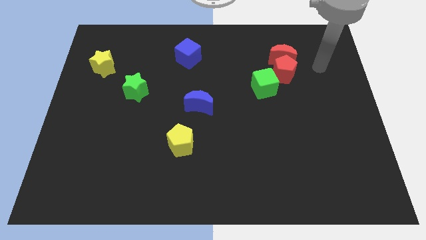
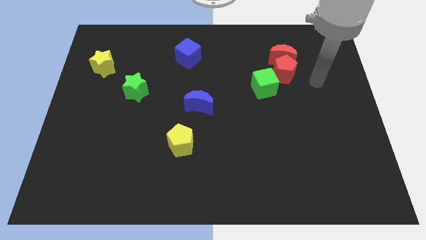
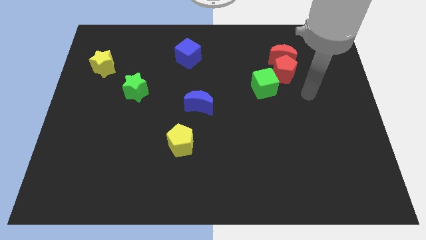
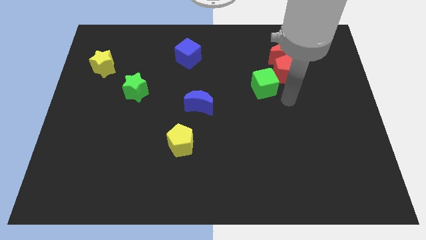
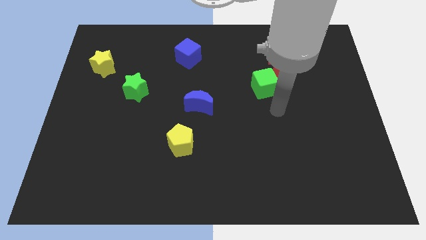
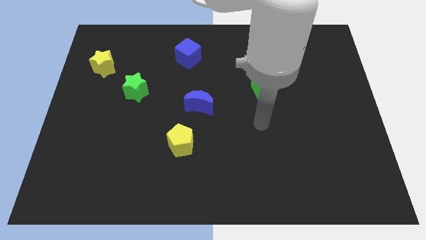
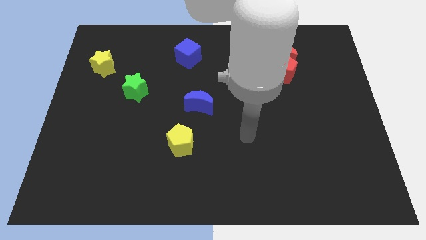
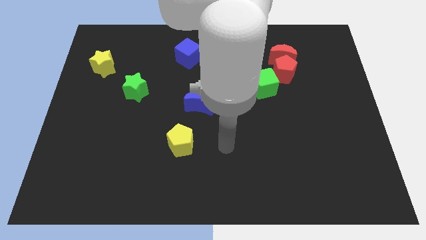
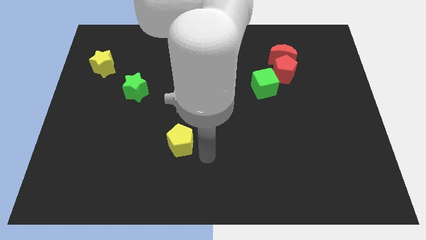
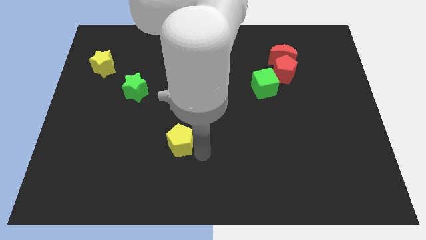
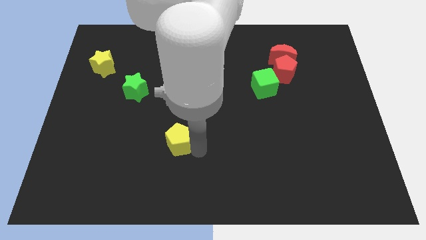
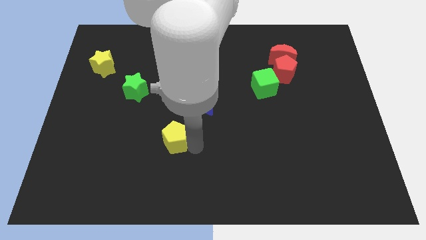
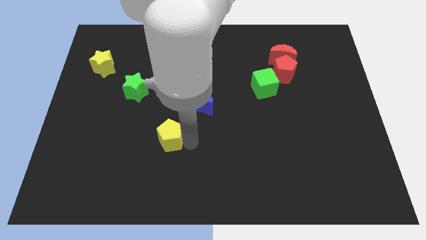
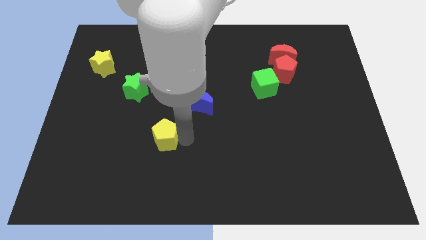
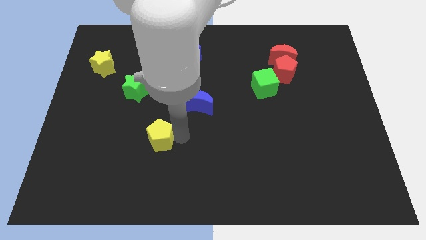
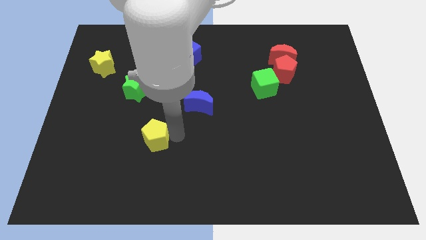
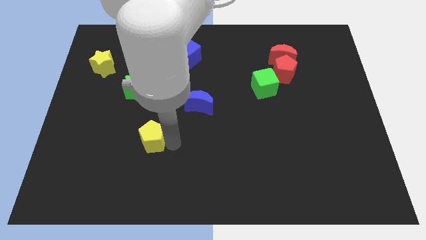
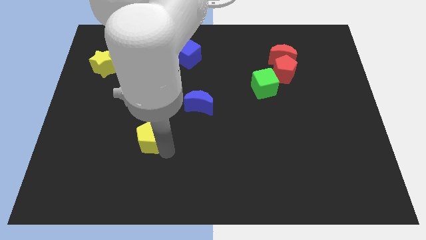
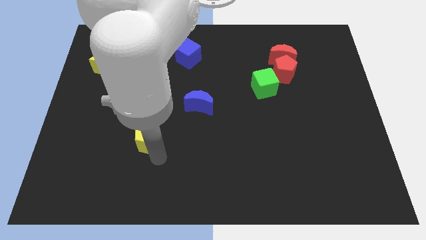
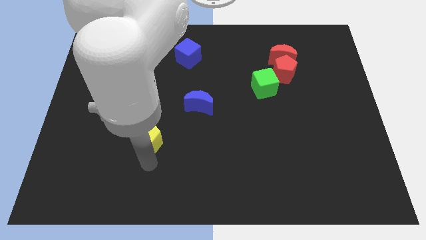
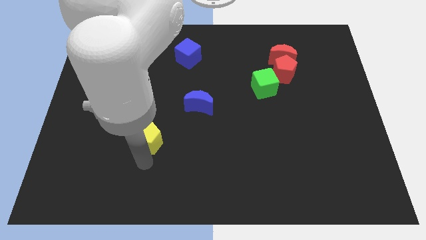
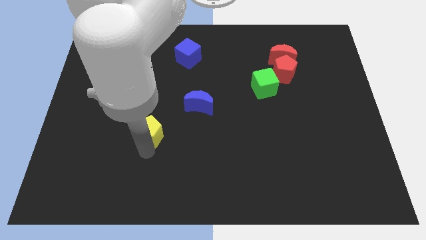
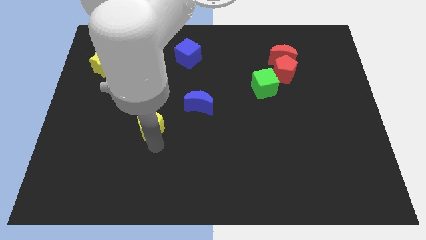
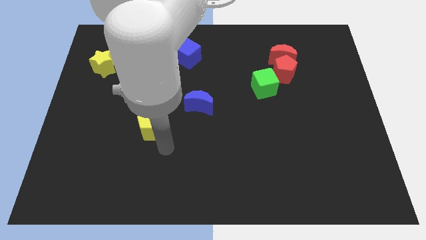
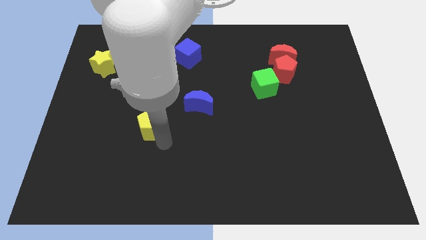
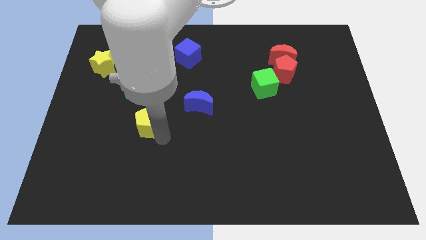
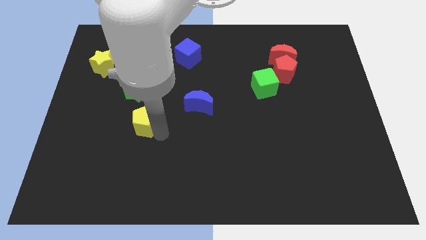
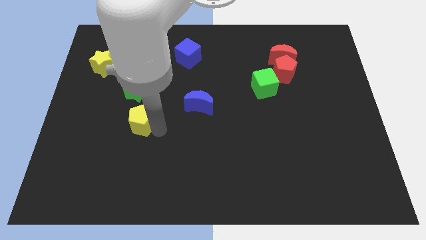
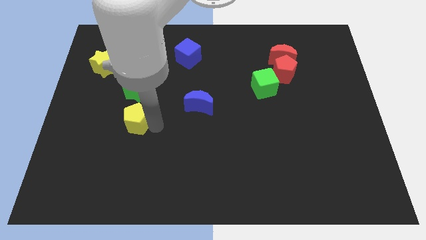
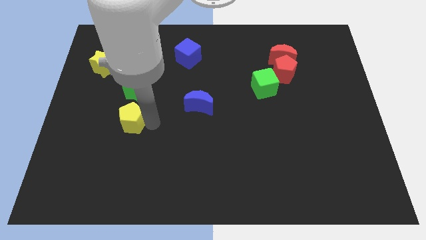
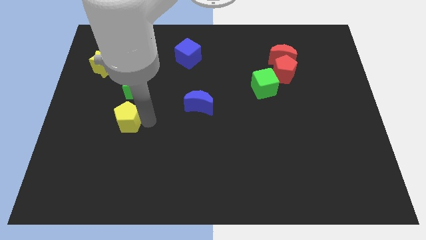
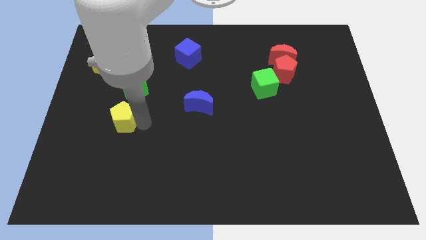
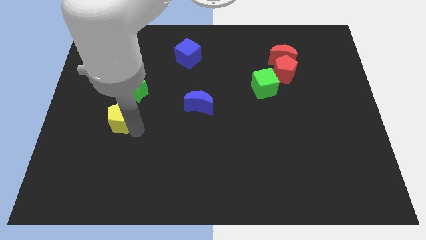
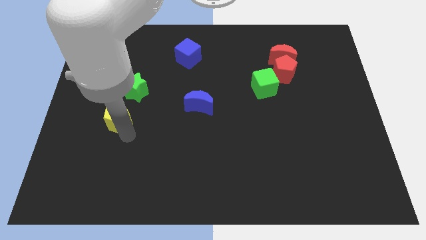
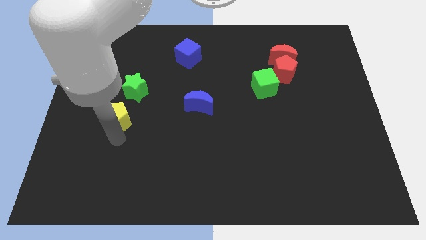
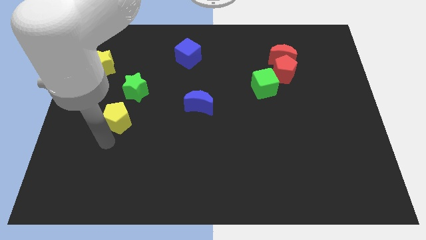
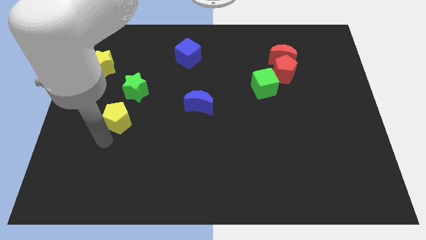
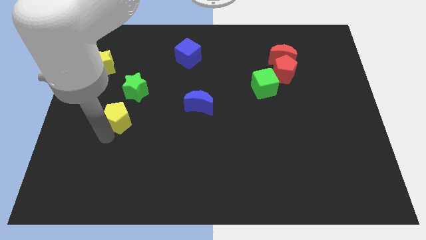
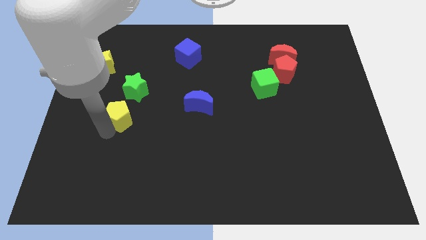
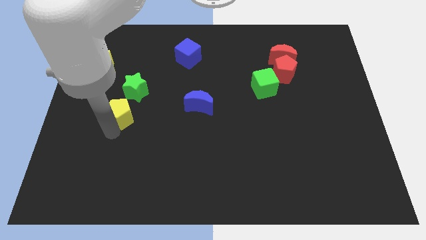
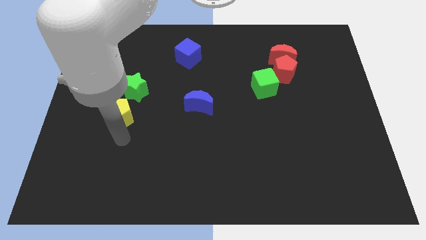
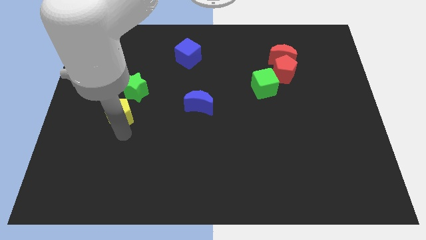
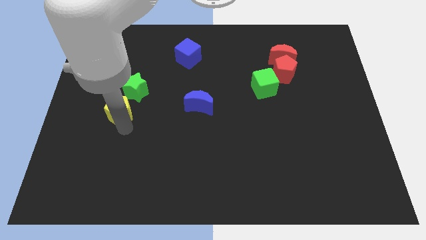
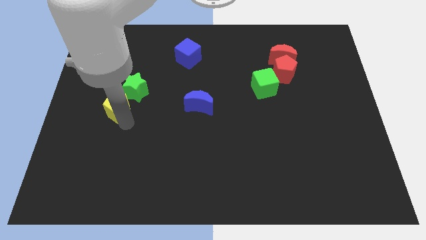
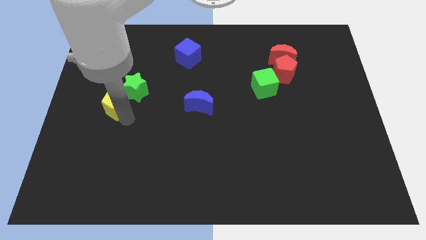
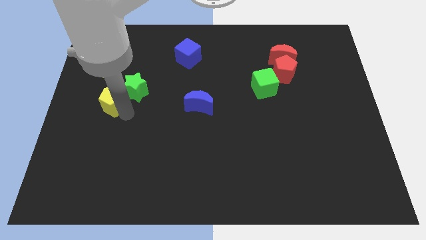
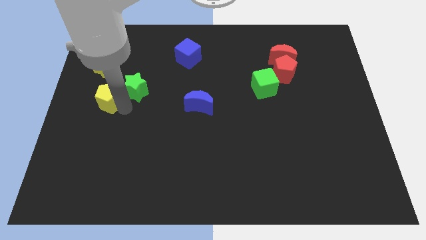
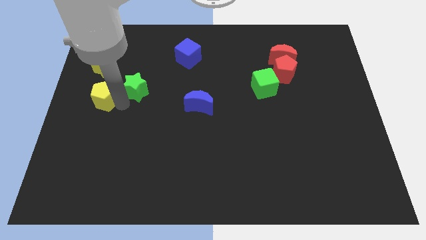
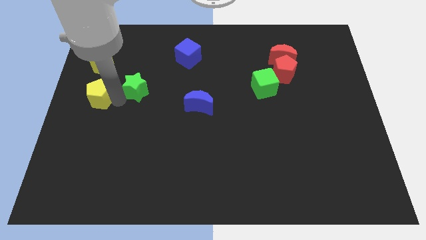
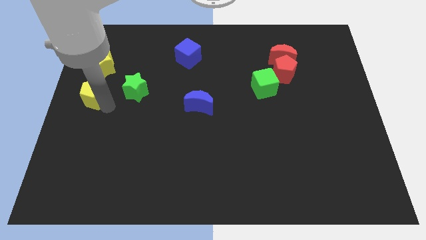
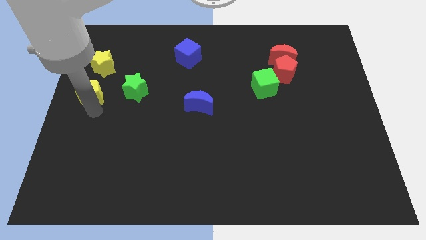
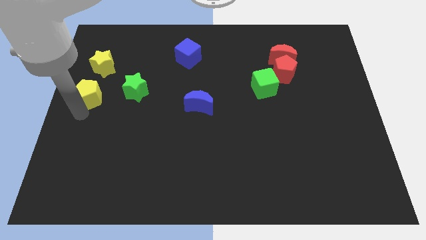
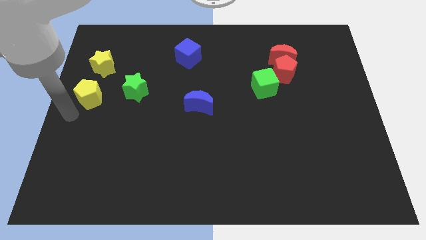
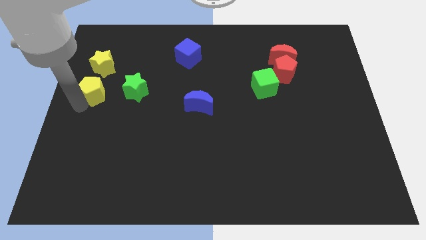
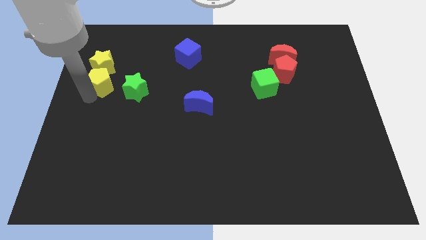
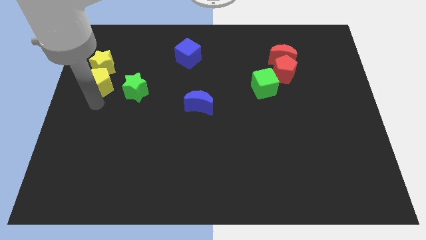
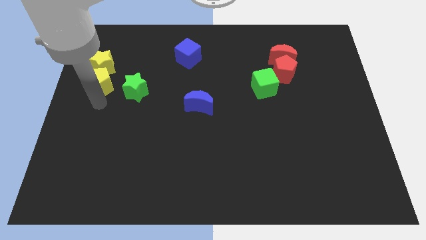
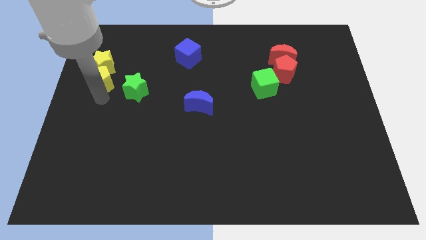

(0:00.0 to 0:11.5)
push the yellow pentagon next to the yellow star

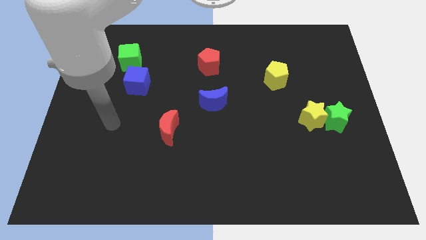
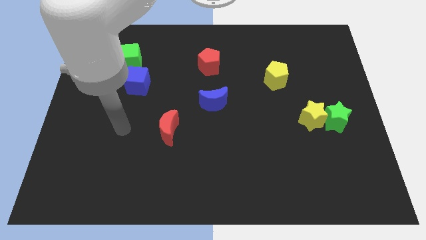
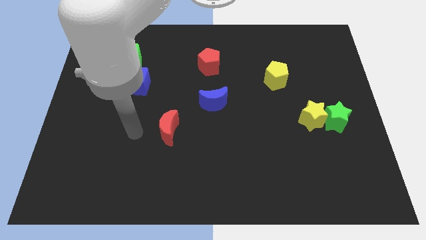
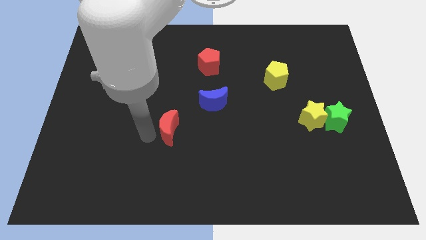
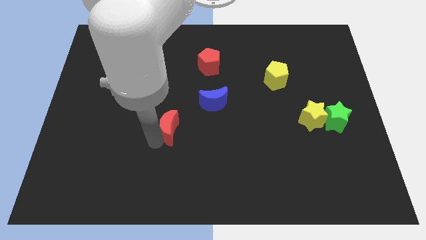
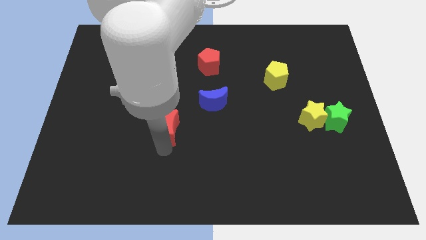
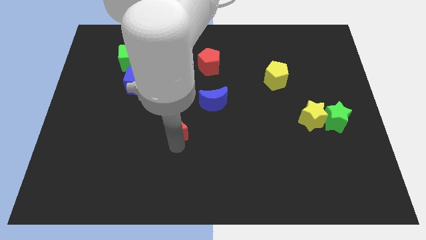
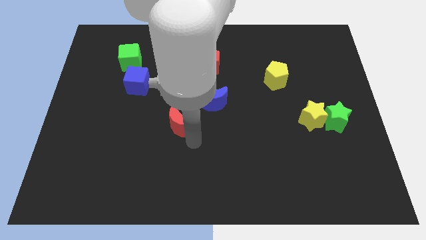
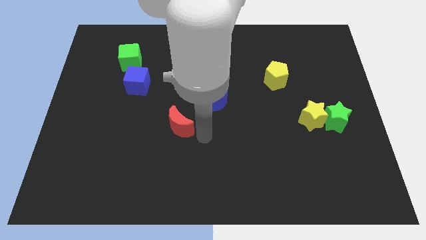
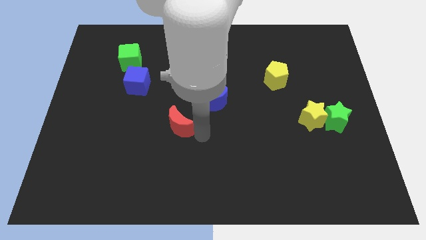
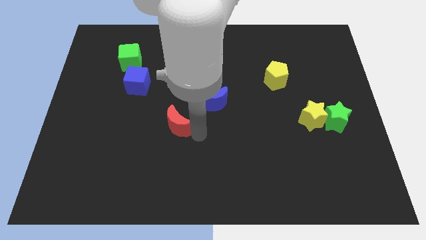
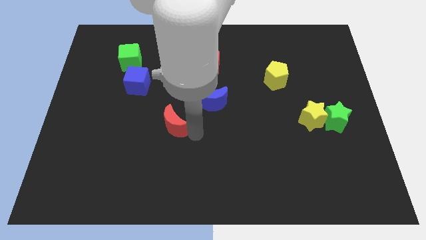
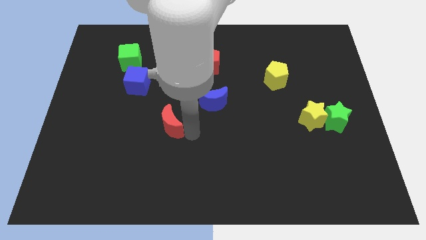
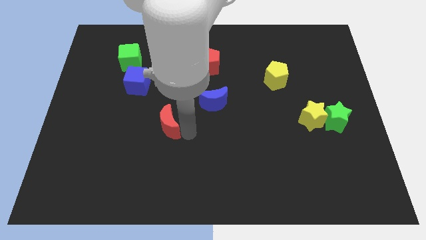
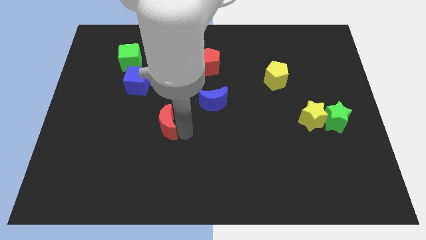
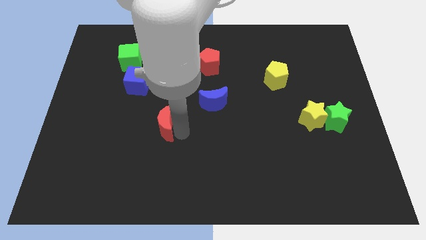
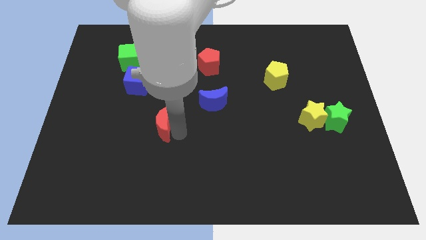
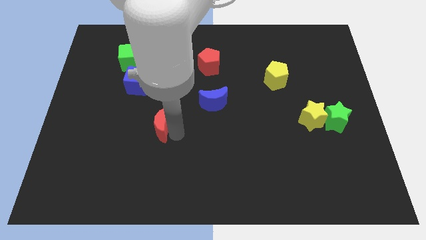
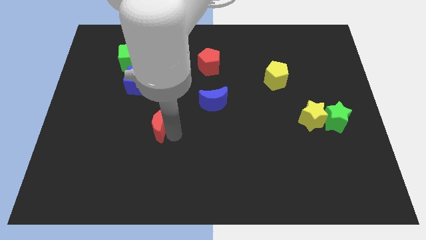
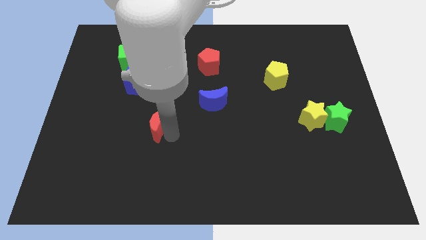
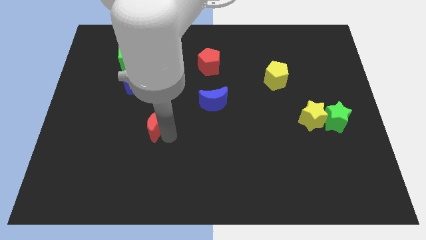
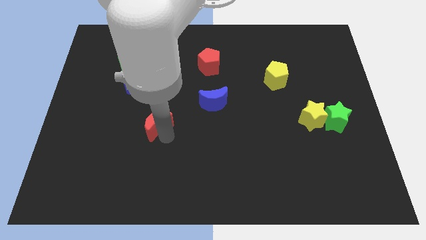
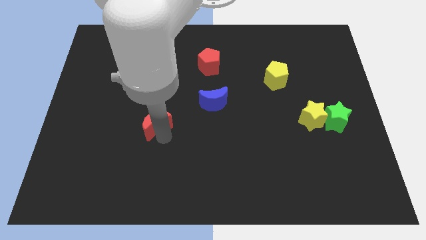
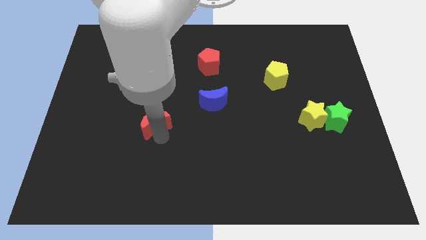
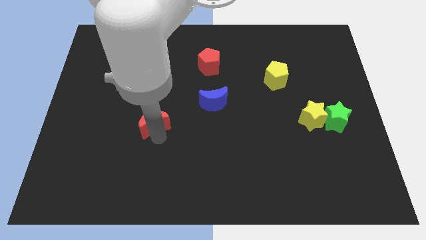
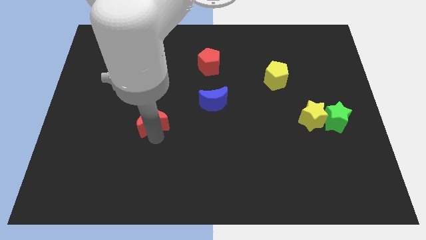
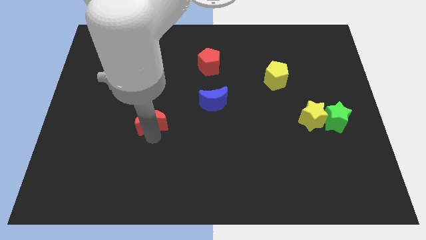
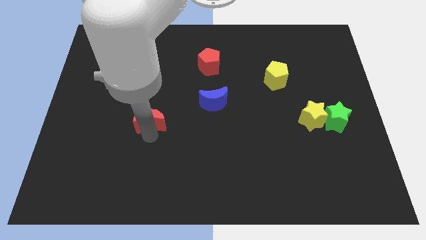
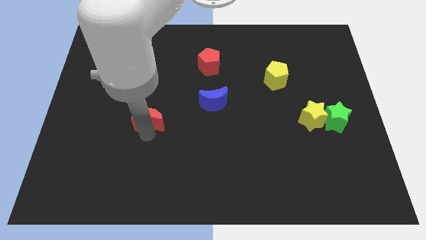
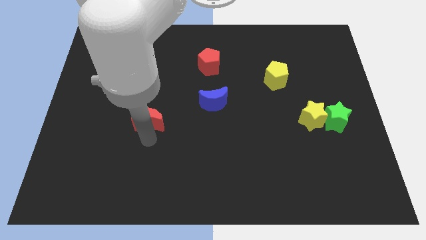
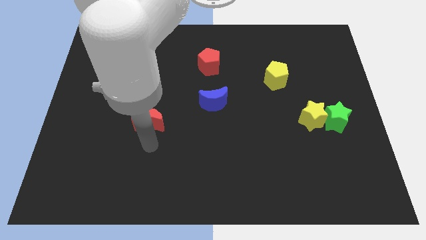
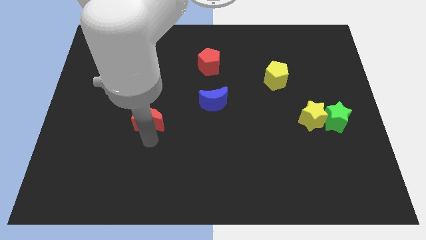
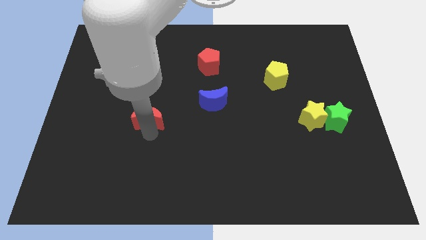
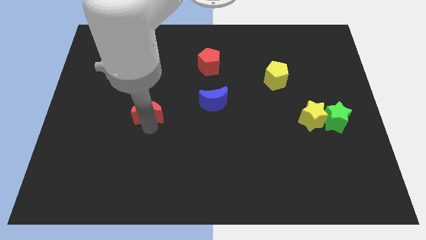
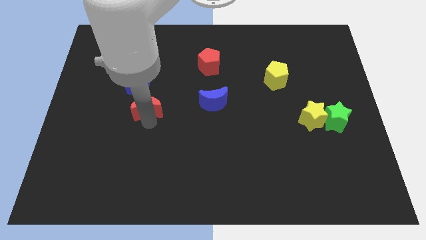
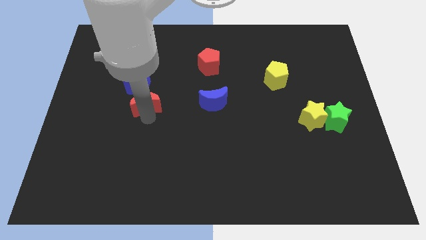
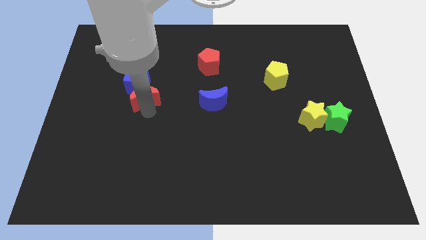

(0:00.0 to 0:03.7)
put the red moon to the blue cube
